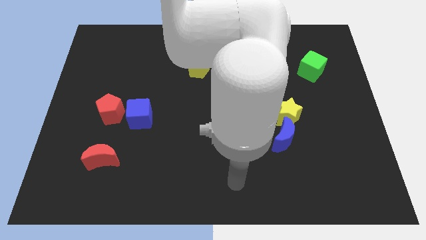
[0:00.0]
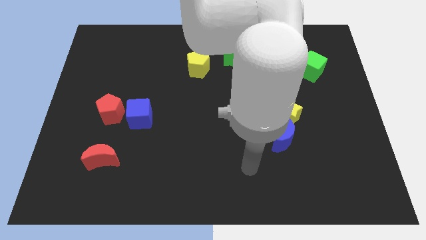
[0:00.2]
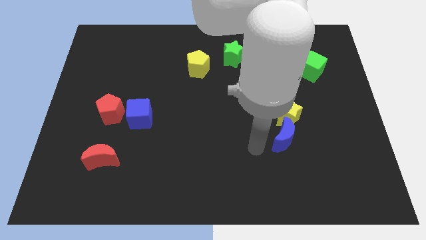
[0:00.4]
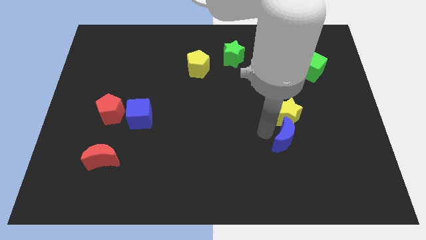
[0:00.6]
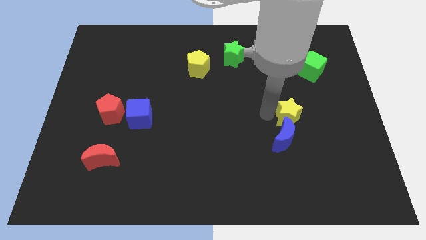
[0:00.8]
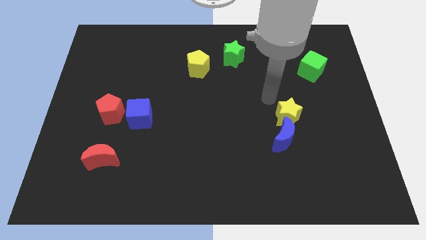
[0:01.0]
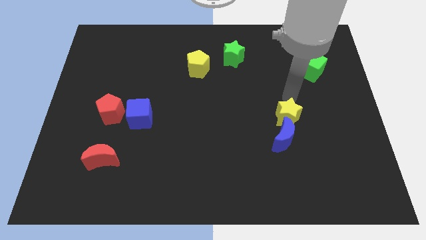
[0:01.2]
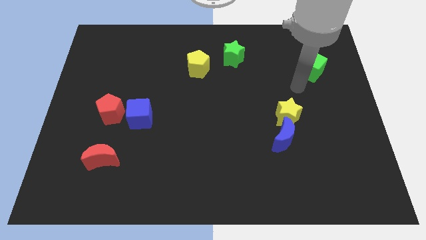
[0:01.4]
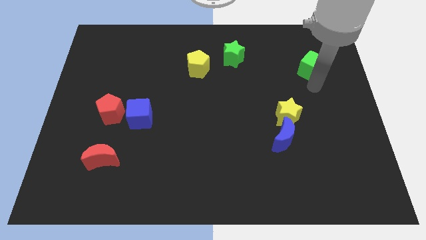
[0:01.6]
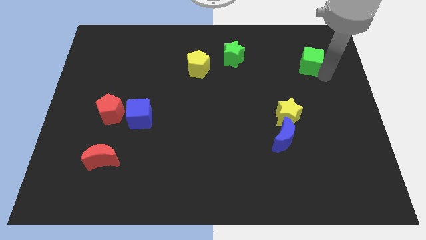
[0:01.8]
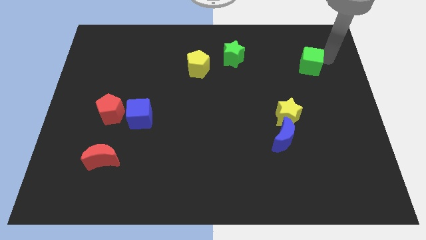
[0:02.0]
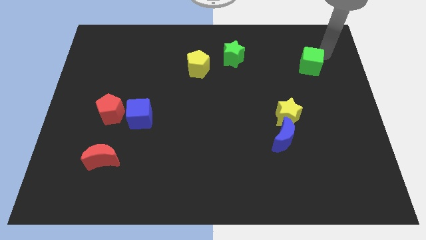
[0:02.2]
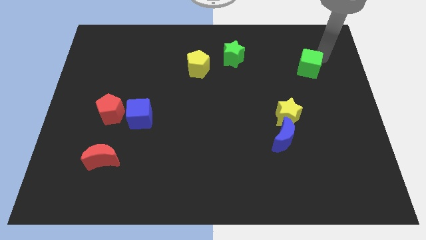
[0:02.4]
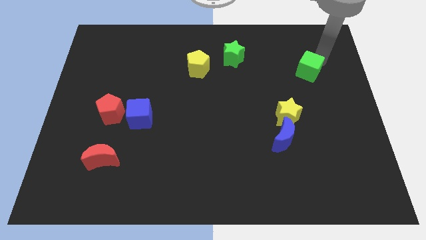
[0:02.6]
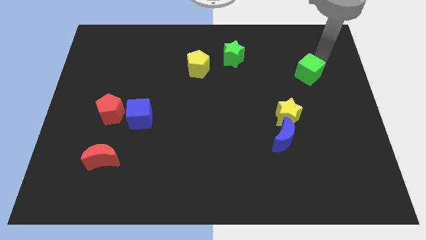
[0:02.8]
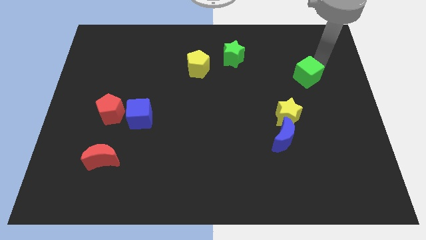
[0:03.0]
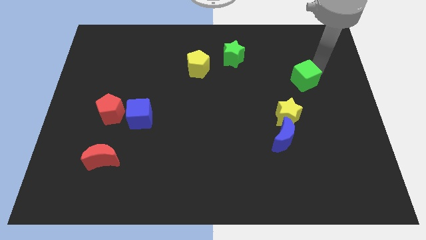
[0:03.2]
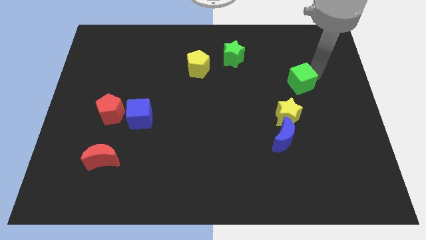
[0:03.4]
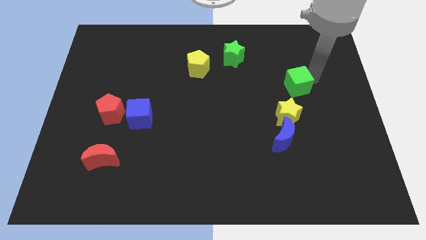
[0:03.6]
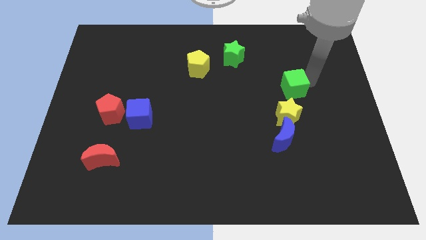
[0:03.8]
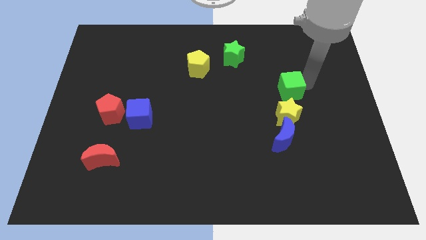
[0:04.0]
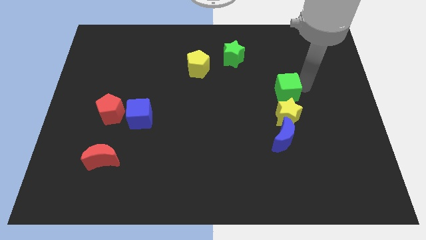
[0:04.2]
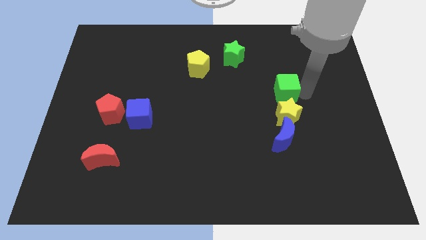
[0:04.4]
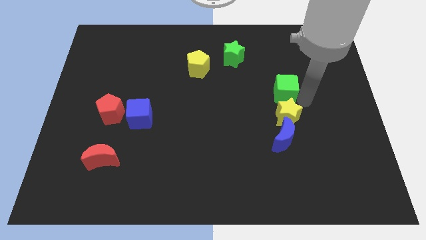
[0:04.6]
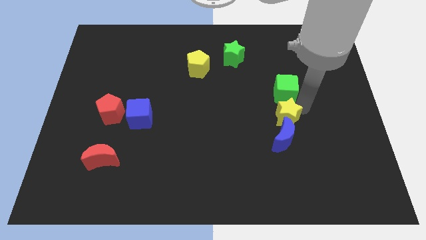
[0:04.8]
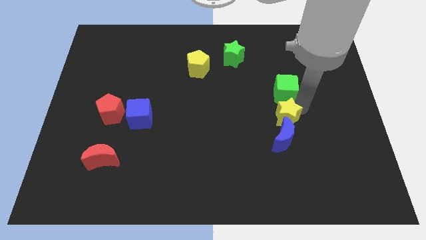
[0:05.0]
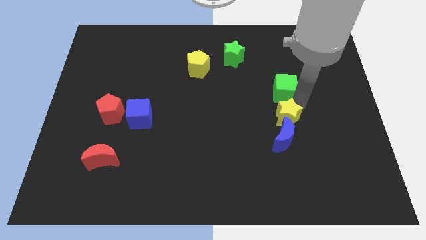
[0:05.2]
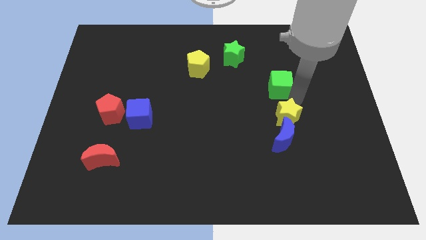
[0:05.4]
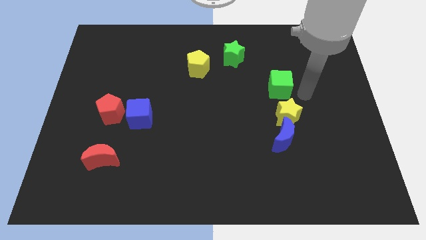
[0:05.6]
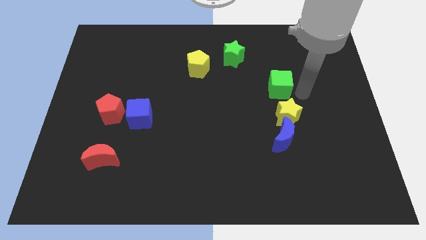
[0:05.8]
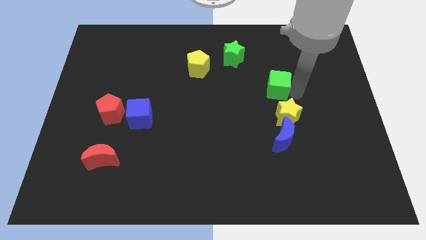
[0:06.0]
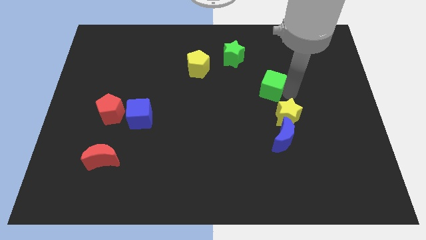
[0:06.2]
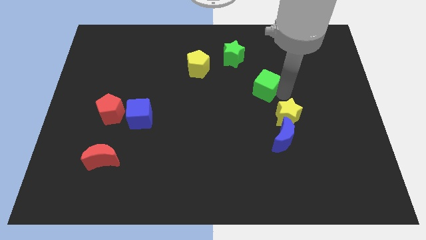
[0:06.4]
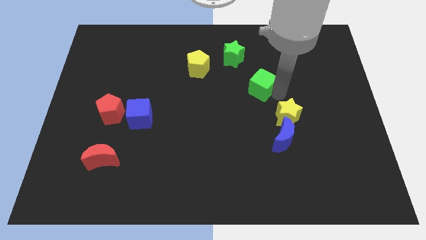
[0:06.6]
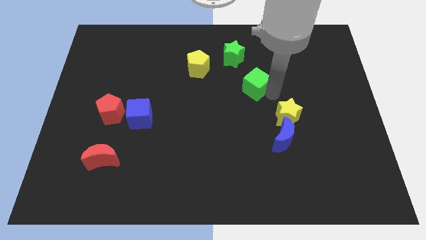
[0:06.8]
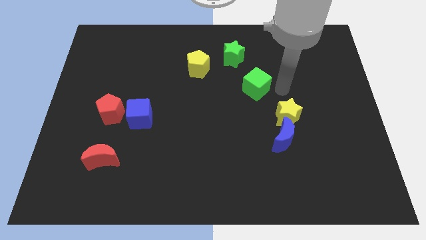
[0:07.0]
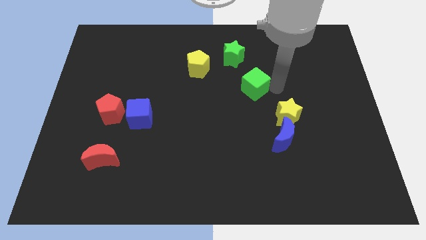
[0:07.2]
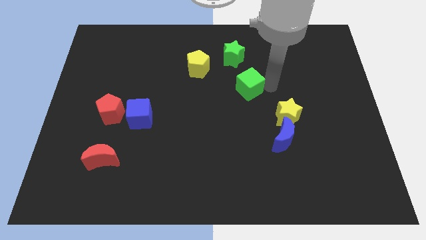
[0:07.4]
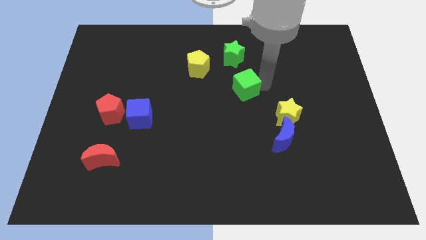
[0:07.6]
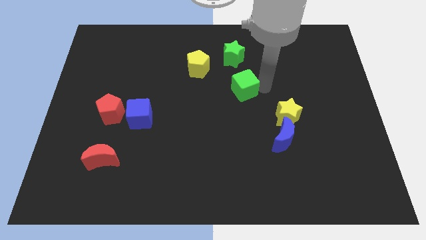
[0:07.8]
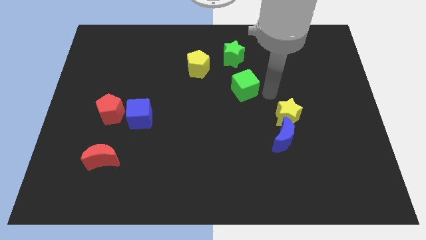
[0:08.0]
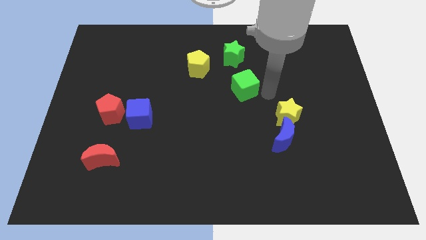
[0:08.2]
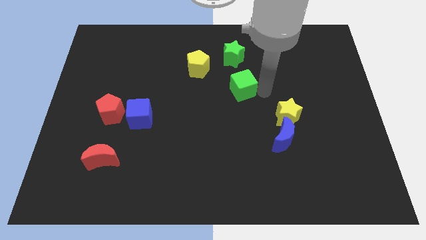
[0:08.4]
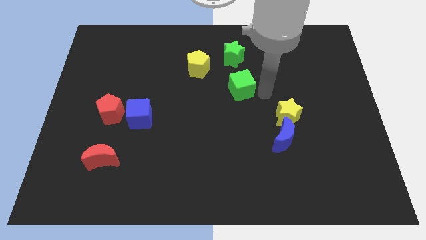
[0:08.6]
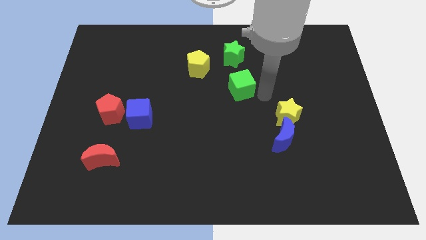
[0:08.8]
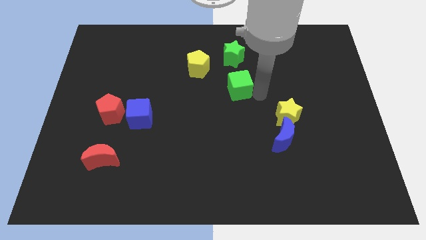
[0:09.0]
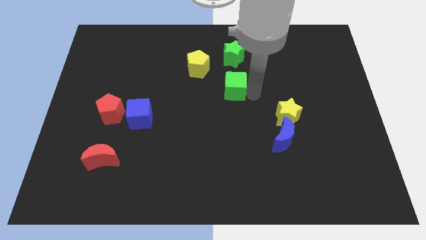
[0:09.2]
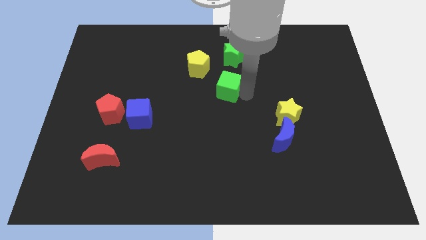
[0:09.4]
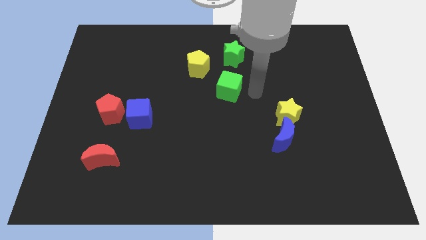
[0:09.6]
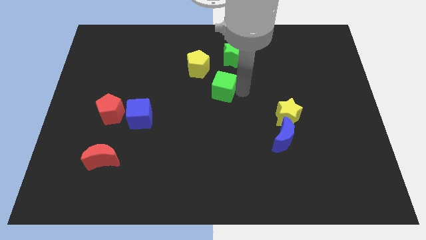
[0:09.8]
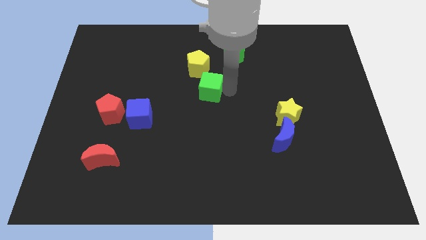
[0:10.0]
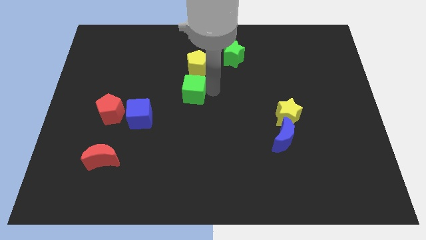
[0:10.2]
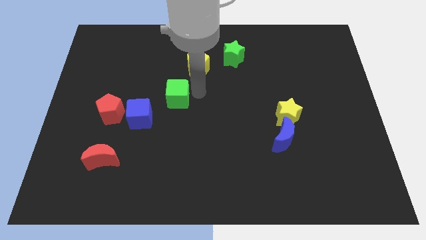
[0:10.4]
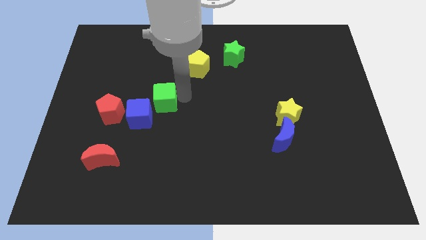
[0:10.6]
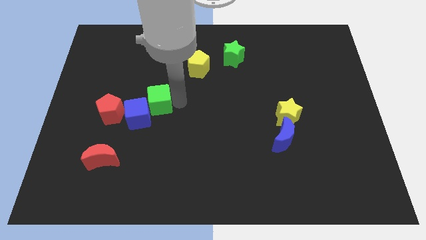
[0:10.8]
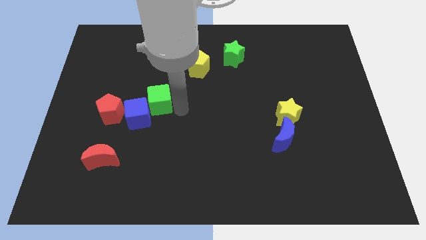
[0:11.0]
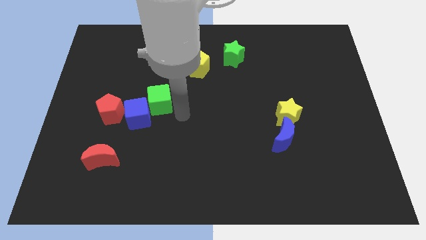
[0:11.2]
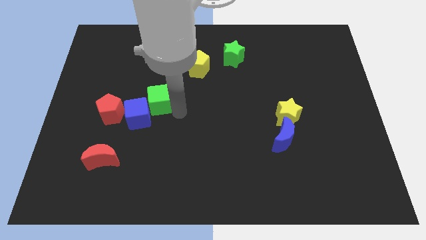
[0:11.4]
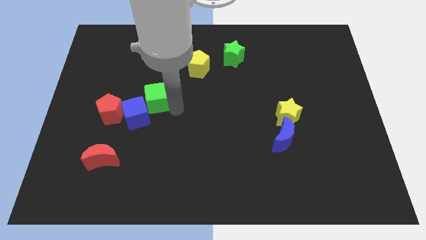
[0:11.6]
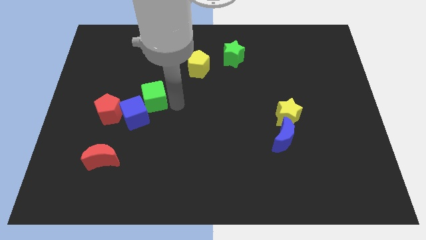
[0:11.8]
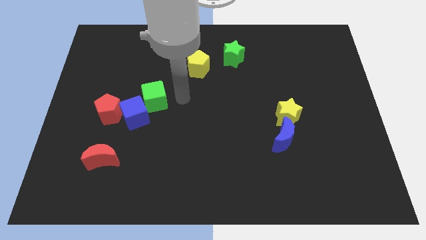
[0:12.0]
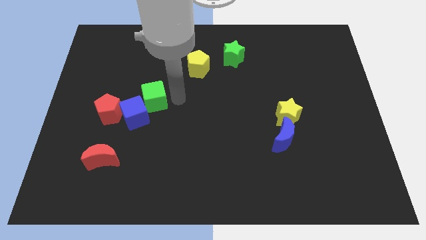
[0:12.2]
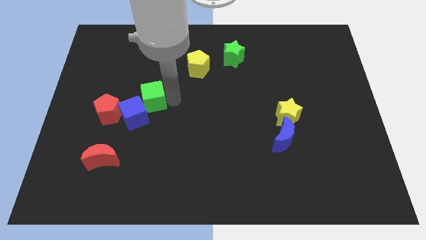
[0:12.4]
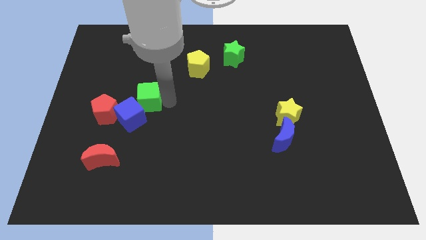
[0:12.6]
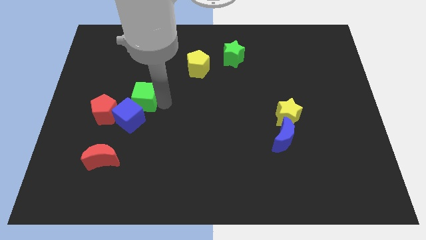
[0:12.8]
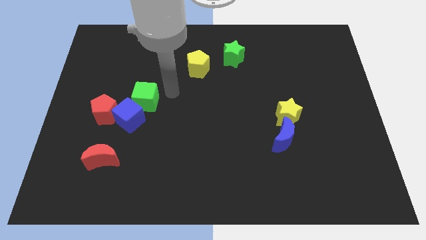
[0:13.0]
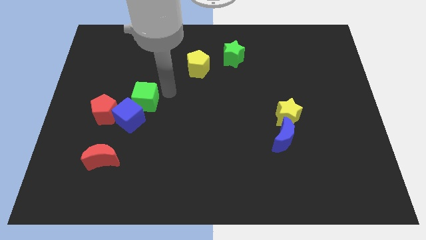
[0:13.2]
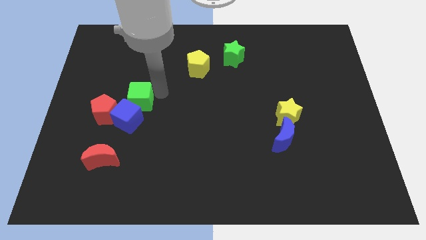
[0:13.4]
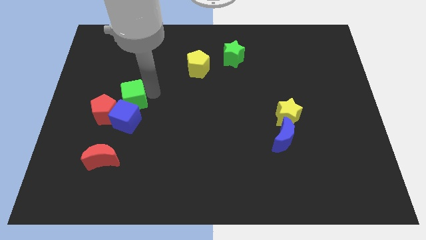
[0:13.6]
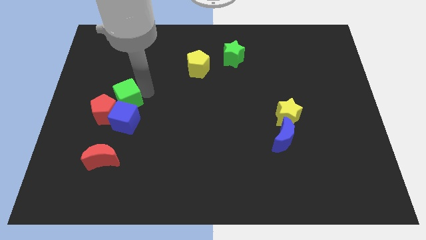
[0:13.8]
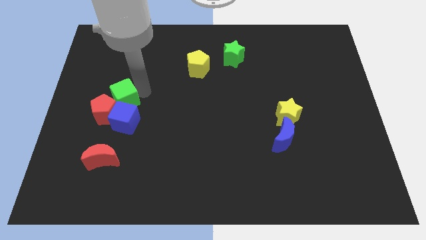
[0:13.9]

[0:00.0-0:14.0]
put the green cube towards the red pentagon

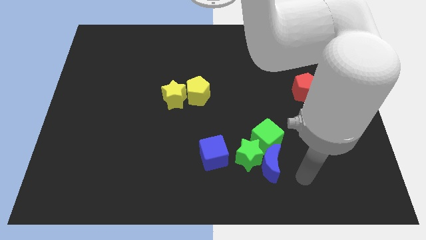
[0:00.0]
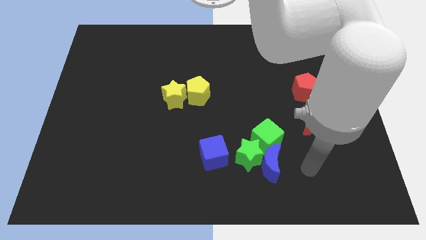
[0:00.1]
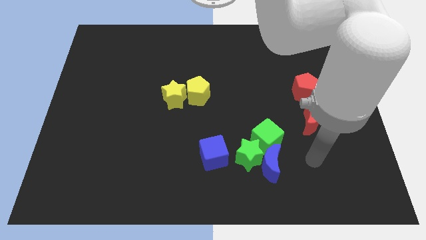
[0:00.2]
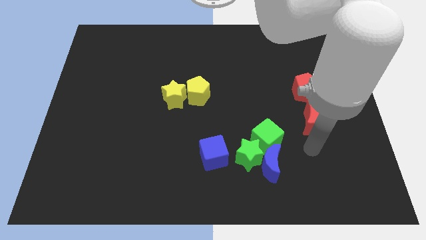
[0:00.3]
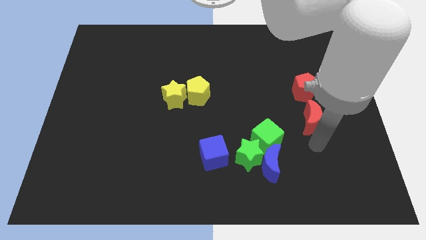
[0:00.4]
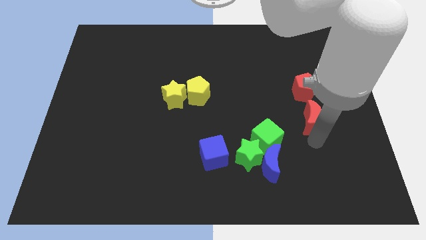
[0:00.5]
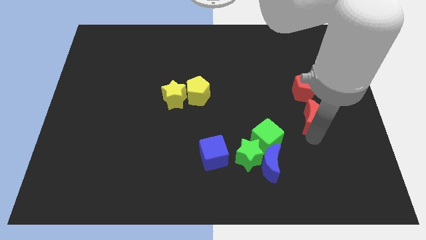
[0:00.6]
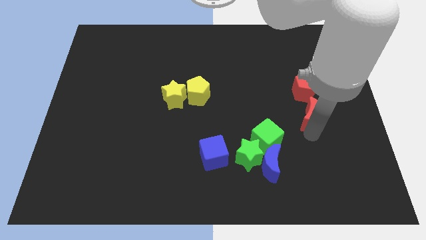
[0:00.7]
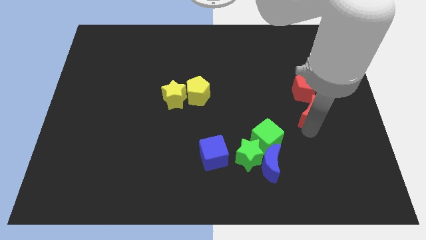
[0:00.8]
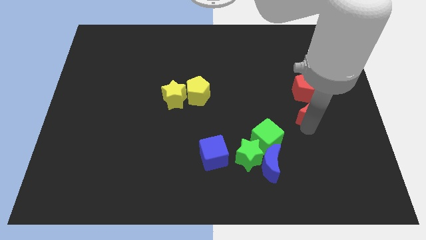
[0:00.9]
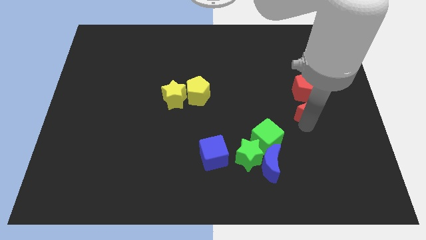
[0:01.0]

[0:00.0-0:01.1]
move the red moon to the red pentagon
